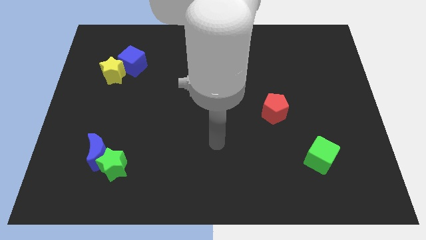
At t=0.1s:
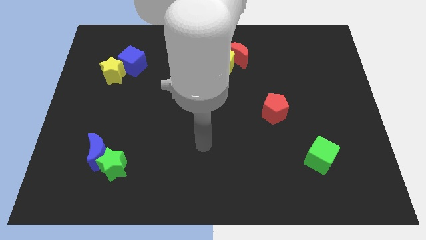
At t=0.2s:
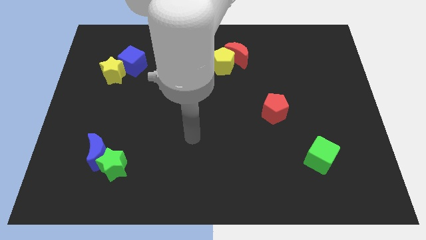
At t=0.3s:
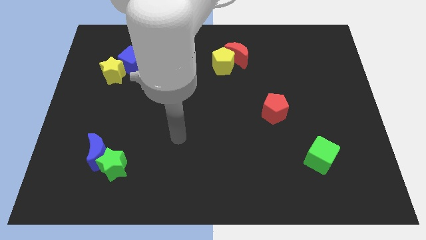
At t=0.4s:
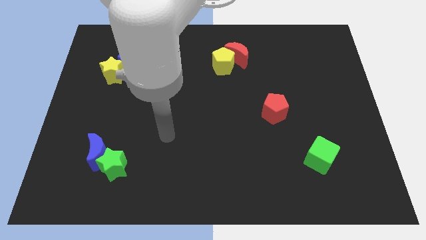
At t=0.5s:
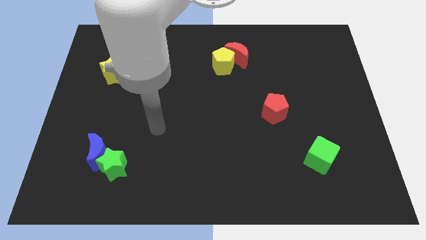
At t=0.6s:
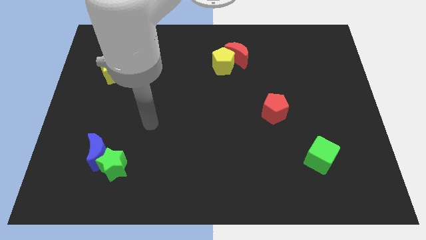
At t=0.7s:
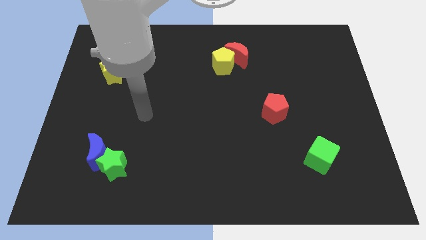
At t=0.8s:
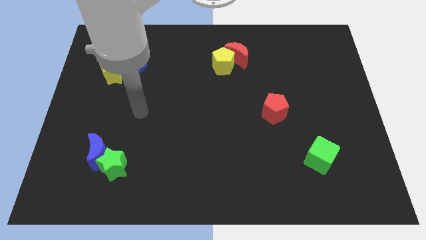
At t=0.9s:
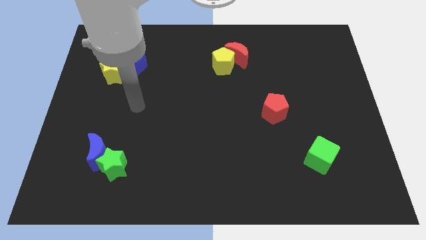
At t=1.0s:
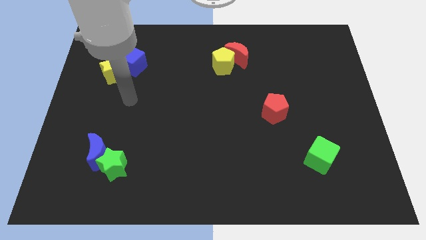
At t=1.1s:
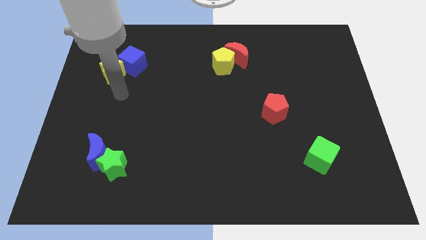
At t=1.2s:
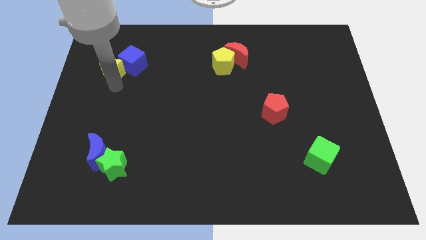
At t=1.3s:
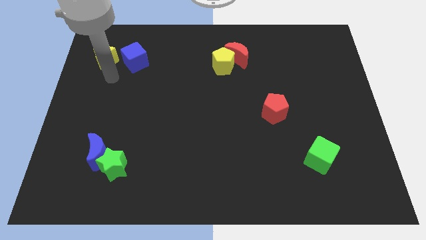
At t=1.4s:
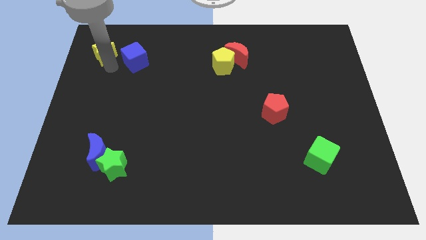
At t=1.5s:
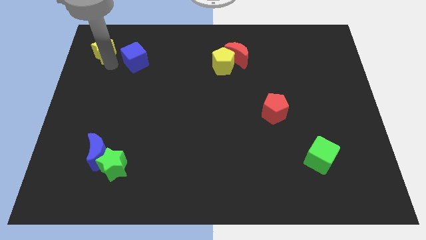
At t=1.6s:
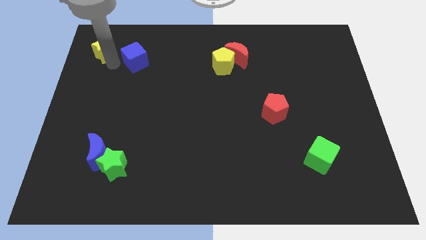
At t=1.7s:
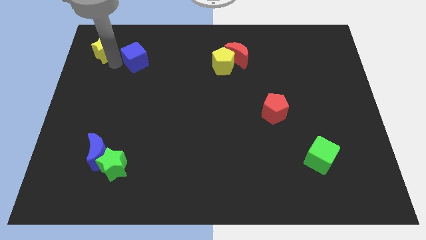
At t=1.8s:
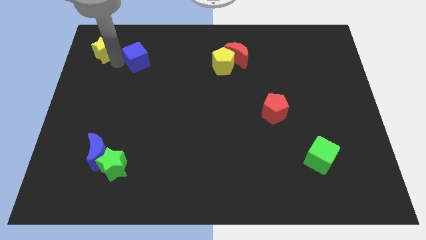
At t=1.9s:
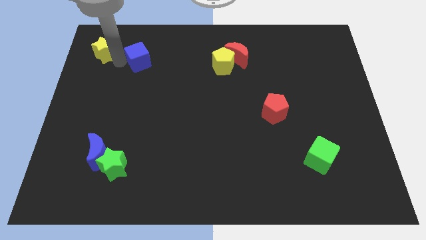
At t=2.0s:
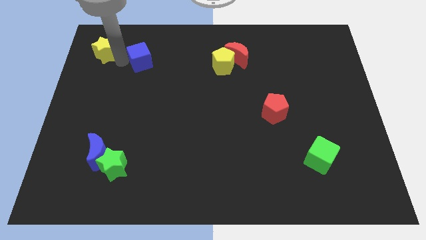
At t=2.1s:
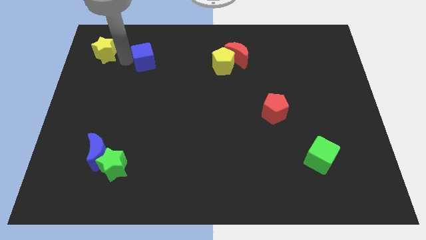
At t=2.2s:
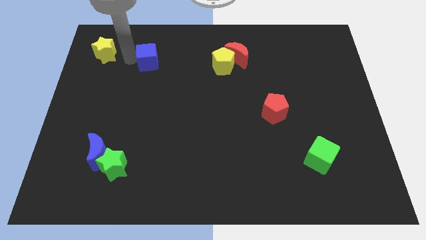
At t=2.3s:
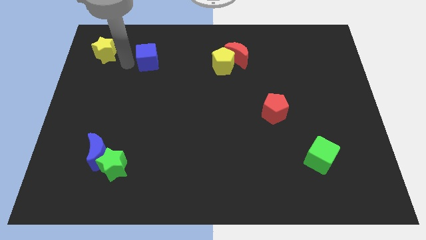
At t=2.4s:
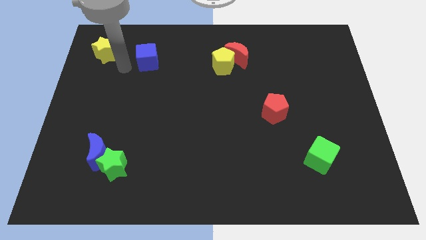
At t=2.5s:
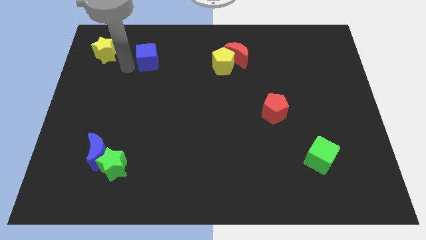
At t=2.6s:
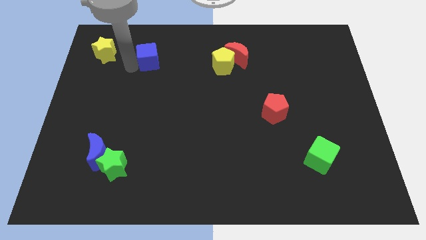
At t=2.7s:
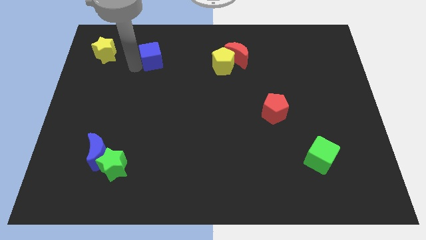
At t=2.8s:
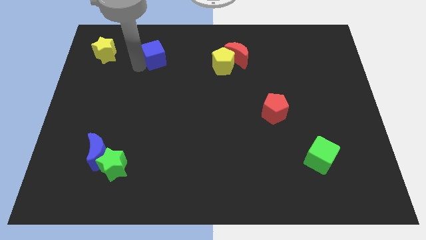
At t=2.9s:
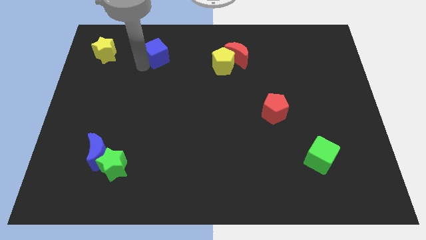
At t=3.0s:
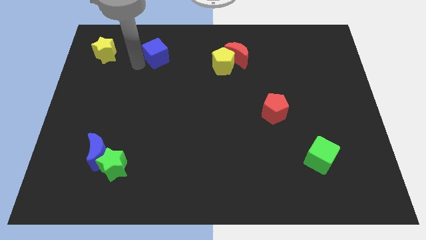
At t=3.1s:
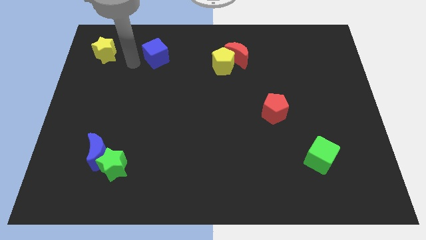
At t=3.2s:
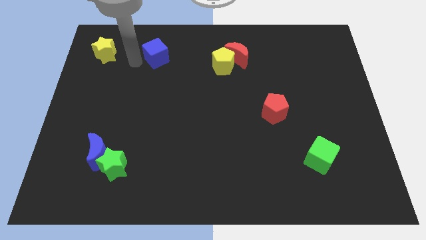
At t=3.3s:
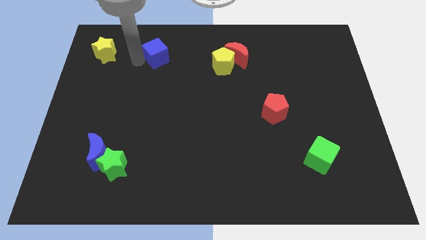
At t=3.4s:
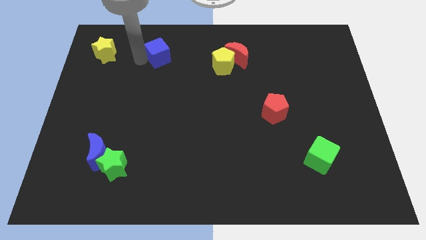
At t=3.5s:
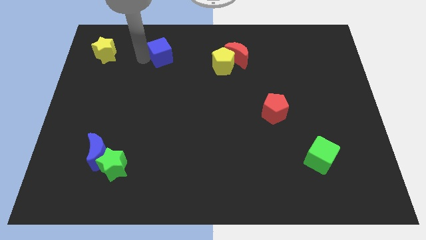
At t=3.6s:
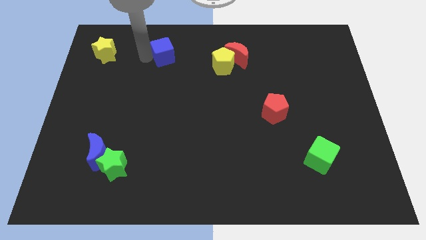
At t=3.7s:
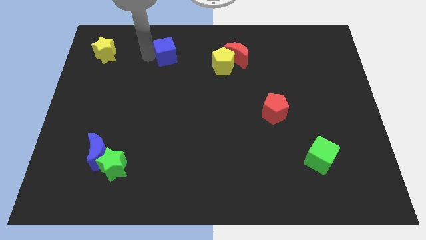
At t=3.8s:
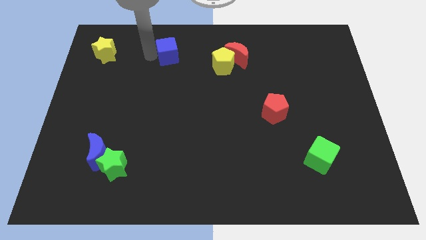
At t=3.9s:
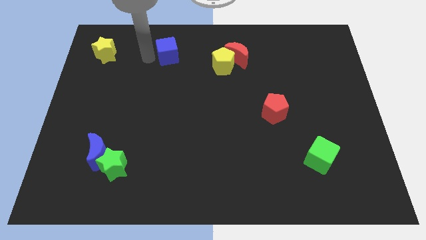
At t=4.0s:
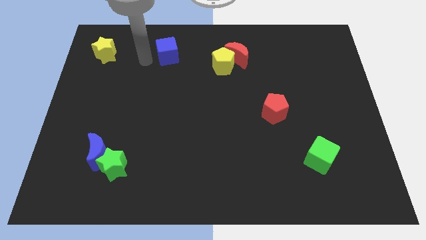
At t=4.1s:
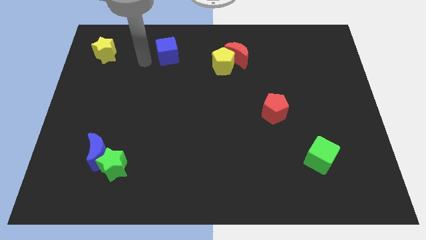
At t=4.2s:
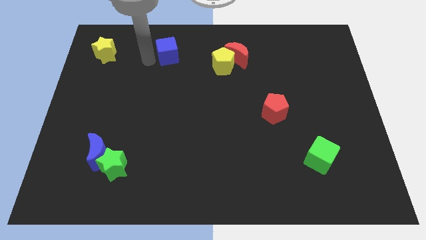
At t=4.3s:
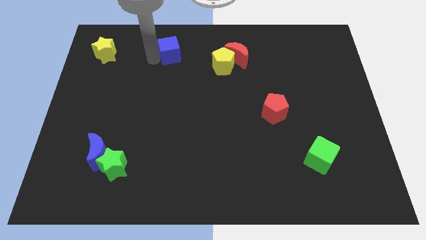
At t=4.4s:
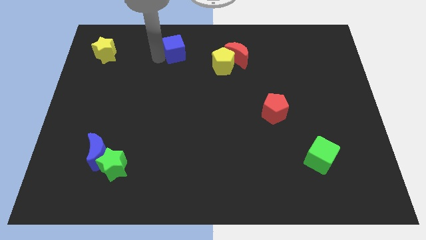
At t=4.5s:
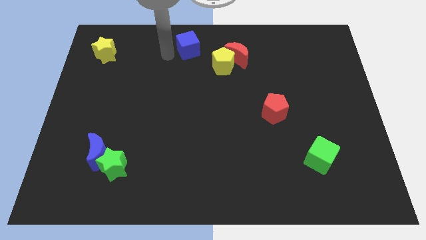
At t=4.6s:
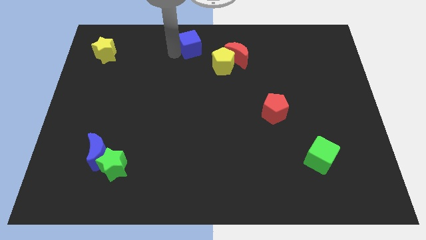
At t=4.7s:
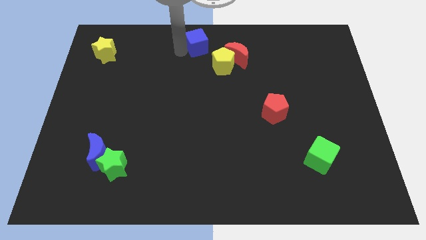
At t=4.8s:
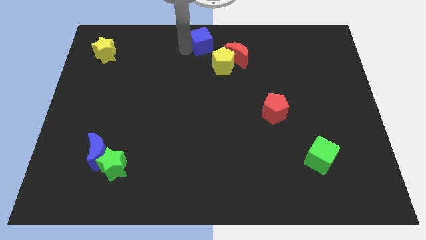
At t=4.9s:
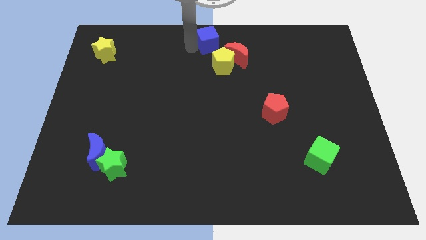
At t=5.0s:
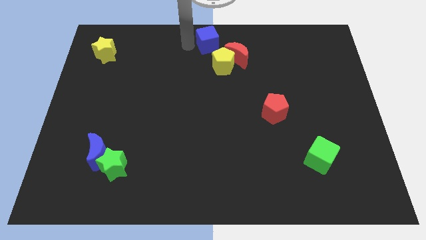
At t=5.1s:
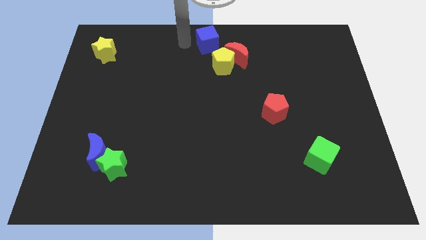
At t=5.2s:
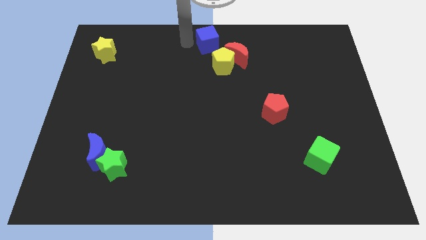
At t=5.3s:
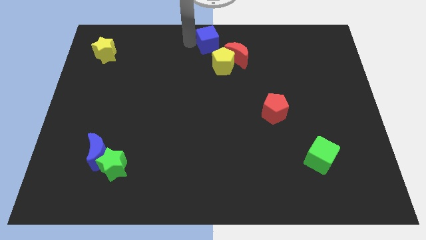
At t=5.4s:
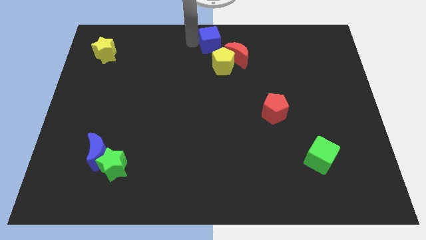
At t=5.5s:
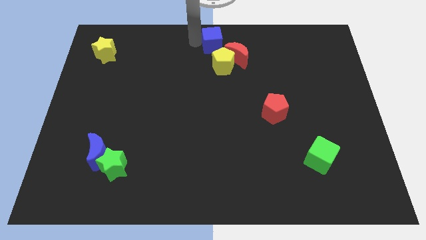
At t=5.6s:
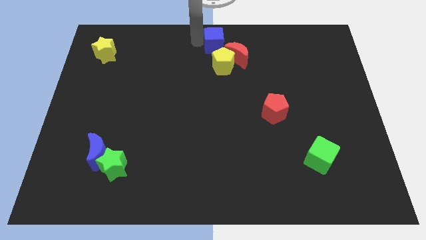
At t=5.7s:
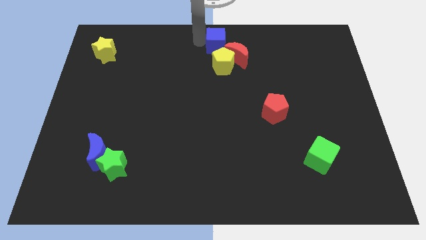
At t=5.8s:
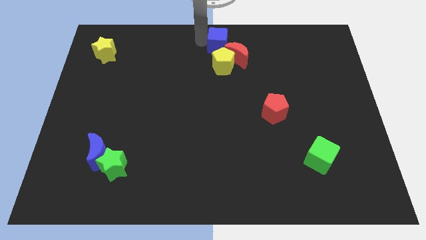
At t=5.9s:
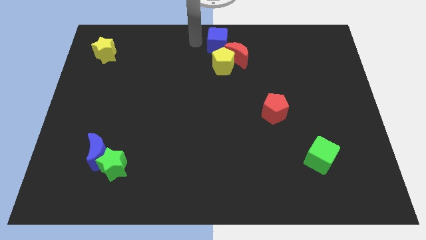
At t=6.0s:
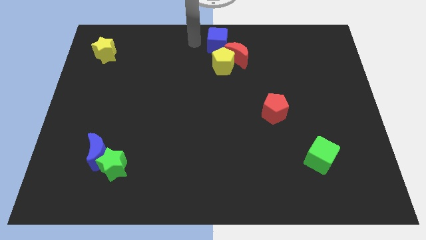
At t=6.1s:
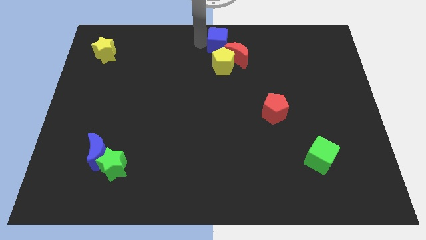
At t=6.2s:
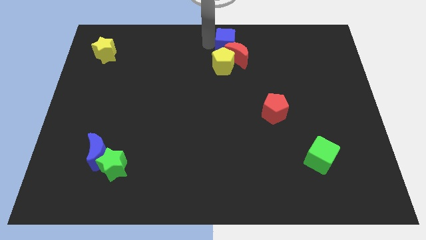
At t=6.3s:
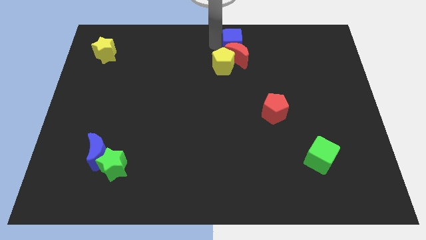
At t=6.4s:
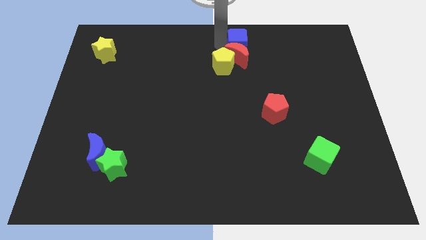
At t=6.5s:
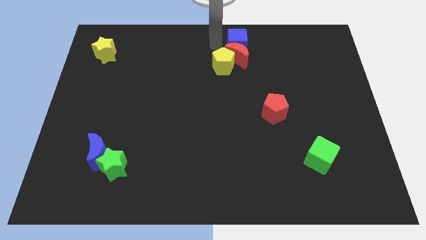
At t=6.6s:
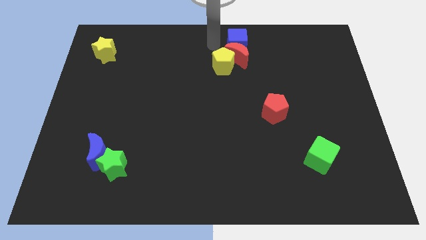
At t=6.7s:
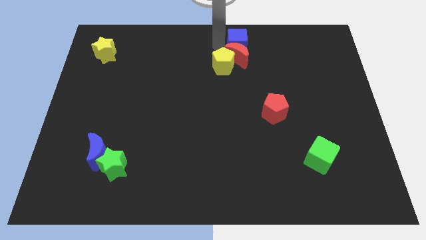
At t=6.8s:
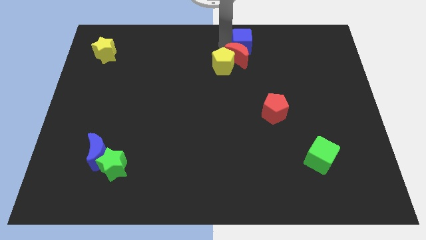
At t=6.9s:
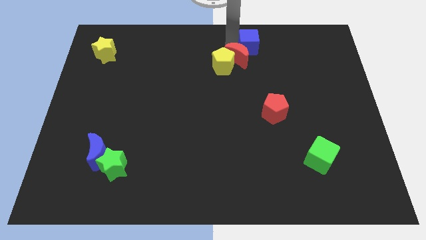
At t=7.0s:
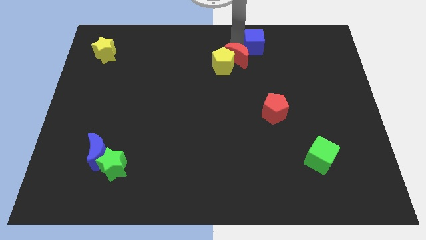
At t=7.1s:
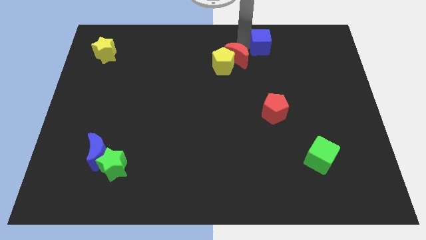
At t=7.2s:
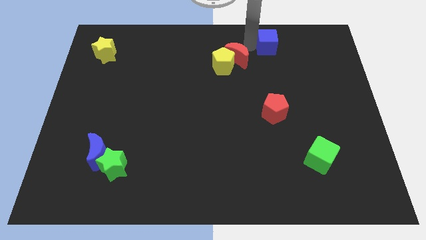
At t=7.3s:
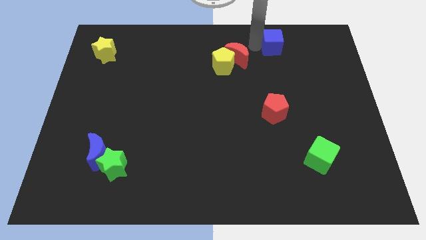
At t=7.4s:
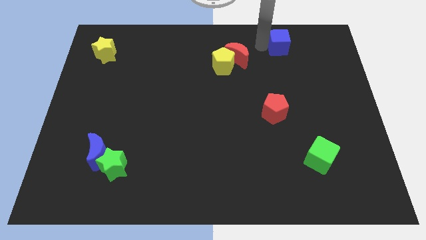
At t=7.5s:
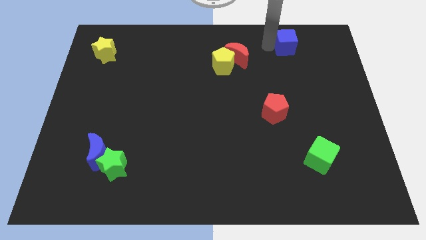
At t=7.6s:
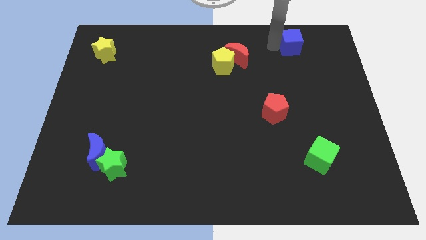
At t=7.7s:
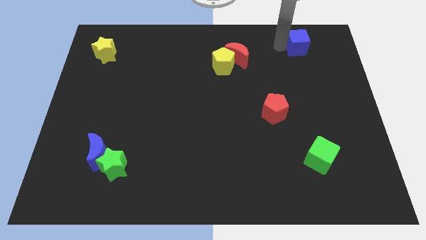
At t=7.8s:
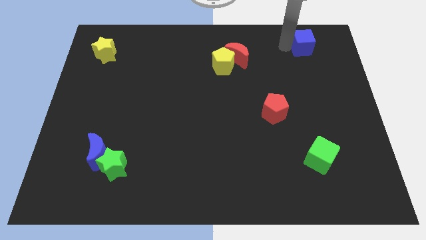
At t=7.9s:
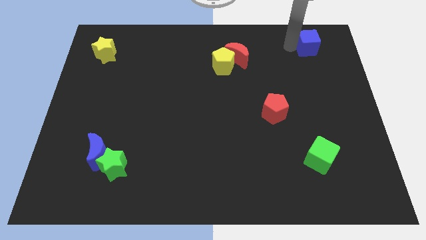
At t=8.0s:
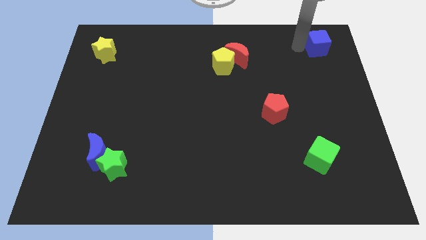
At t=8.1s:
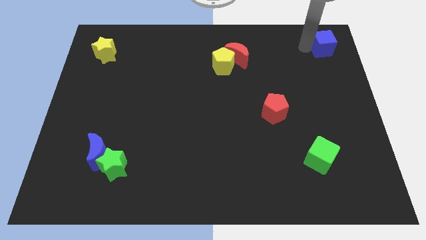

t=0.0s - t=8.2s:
slide the blue cube to the top right
